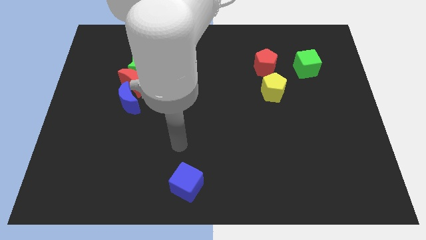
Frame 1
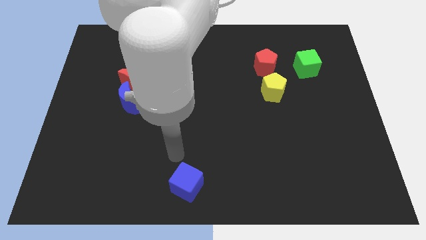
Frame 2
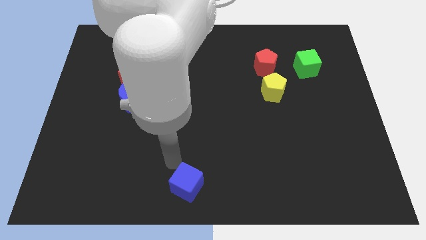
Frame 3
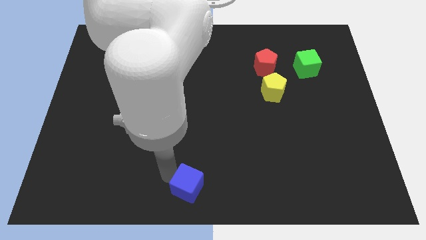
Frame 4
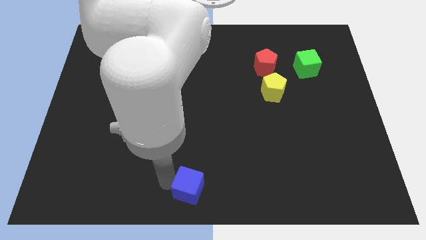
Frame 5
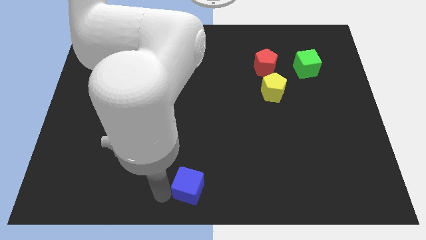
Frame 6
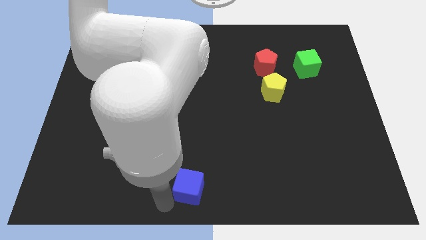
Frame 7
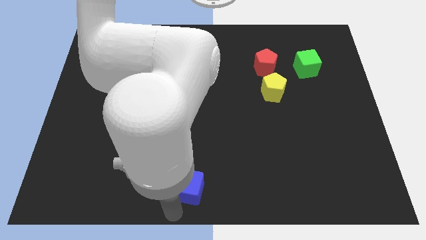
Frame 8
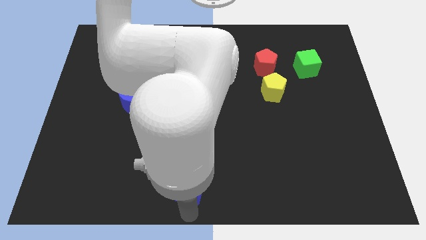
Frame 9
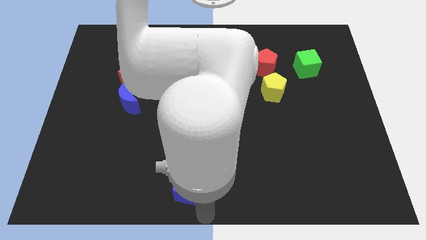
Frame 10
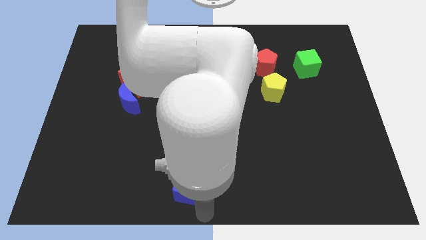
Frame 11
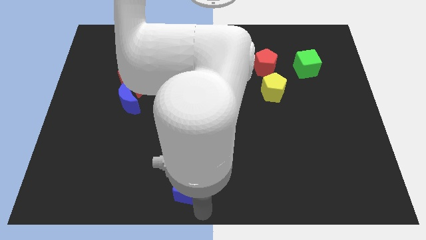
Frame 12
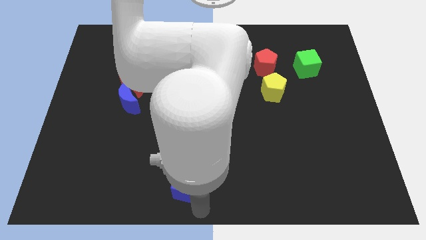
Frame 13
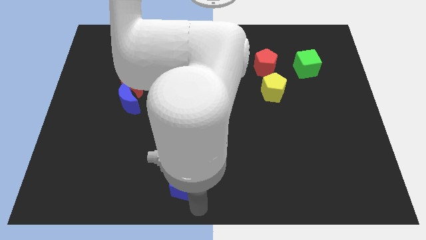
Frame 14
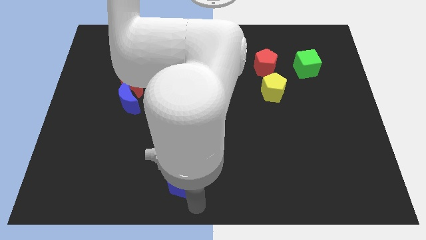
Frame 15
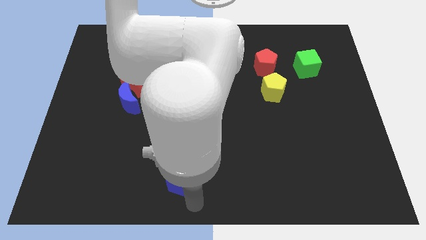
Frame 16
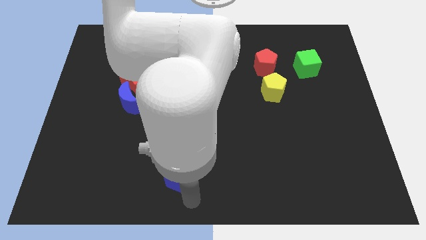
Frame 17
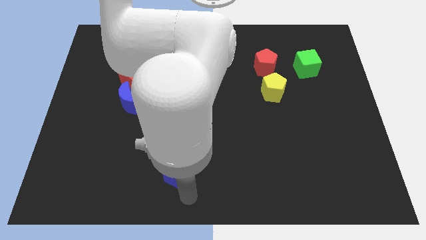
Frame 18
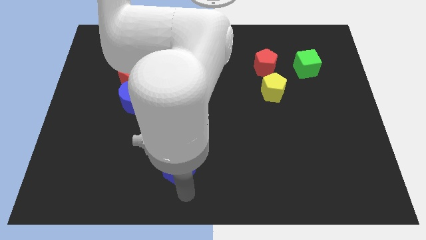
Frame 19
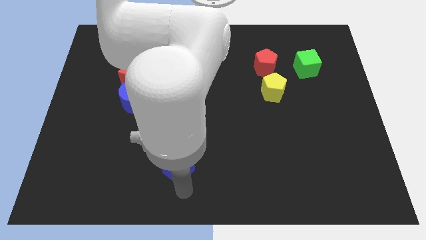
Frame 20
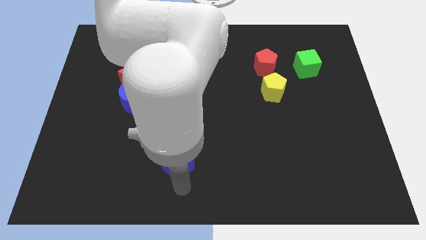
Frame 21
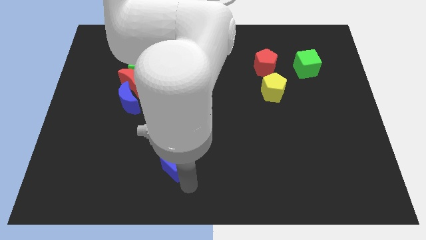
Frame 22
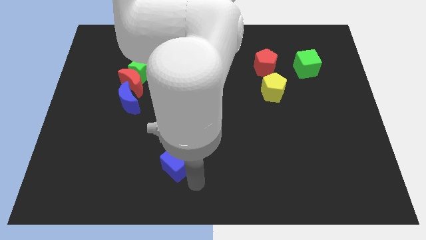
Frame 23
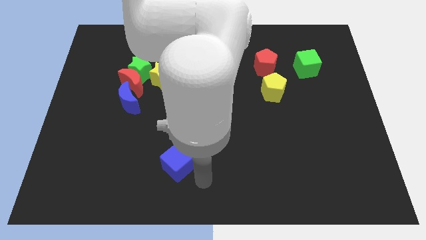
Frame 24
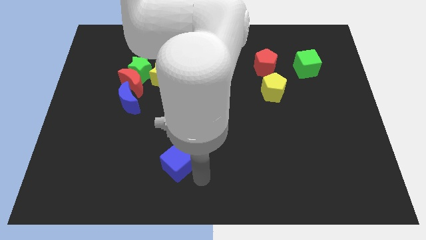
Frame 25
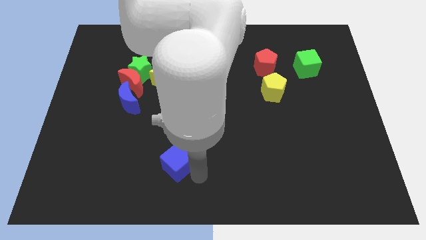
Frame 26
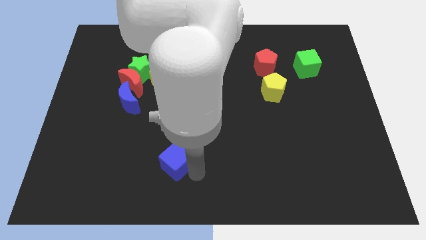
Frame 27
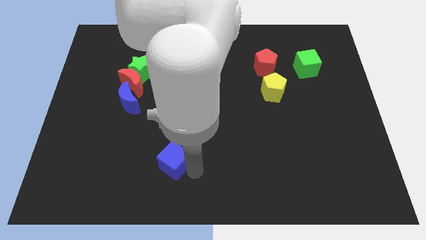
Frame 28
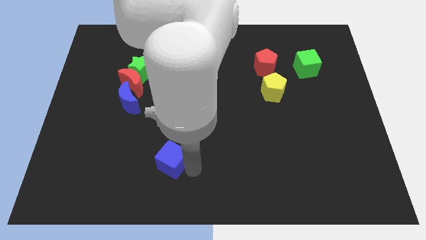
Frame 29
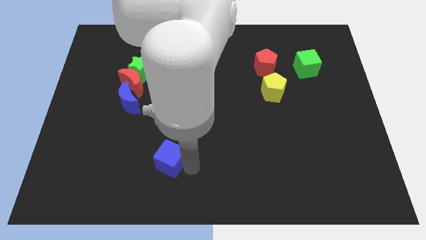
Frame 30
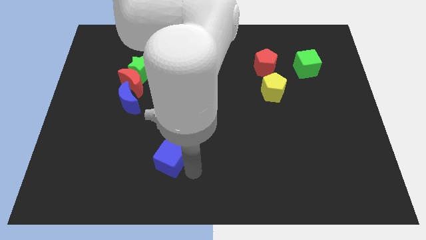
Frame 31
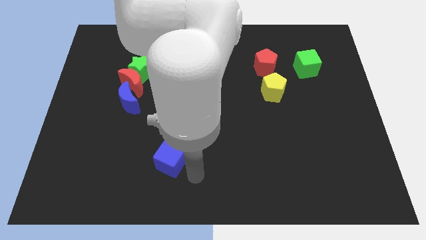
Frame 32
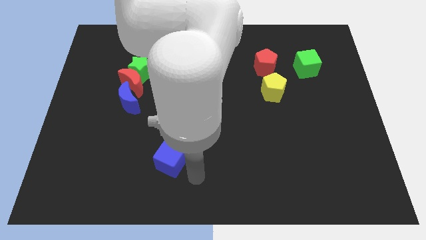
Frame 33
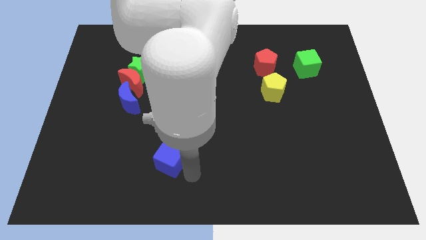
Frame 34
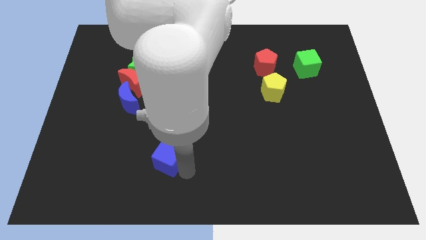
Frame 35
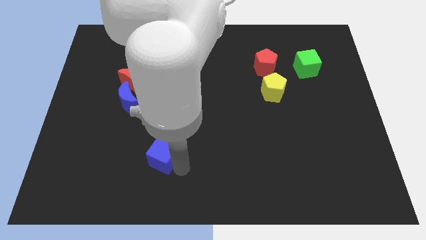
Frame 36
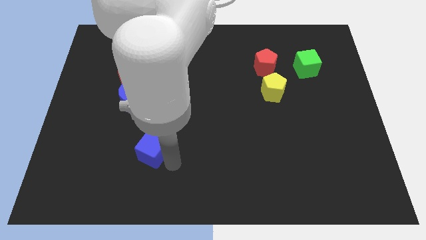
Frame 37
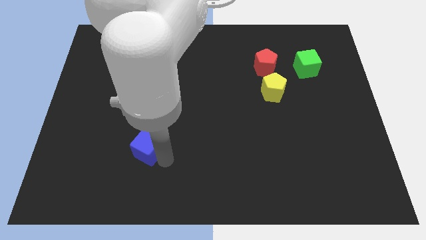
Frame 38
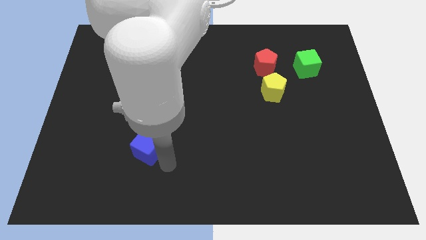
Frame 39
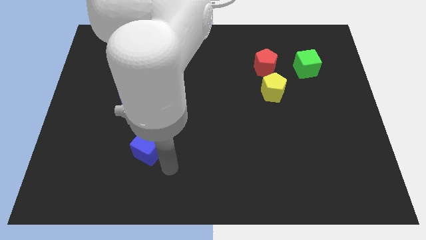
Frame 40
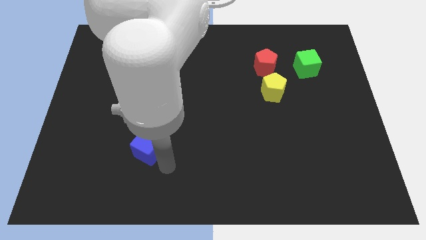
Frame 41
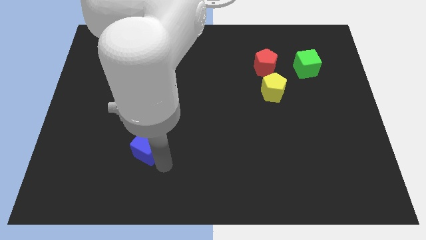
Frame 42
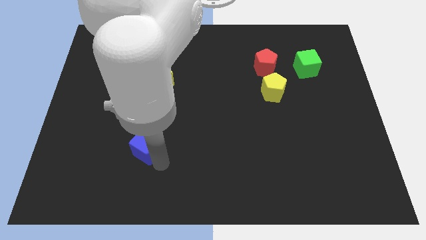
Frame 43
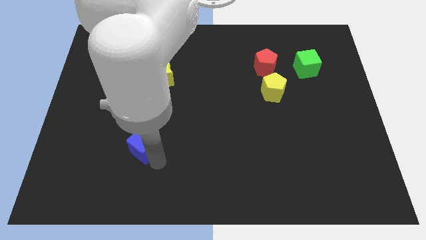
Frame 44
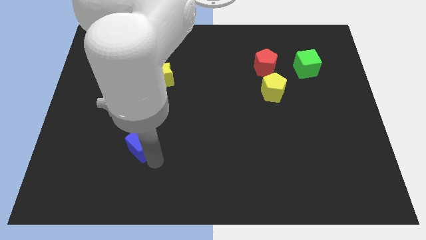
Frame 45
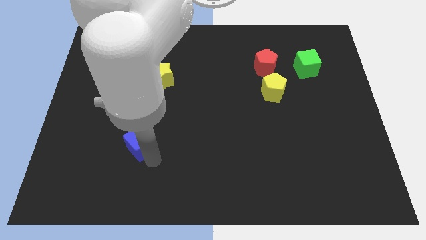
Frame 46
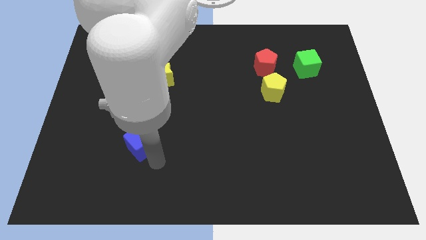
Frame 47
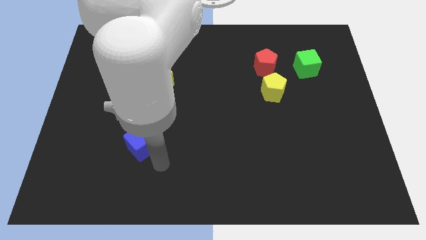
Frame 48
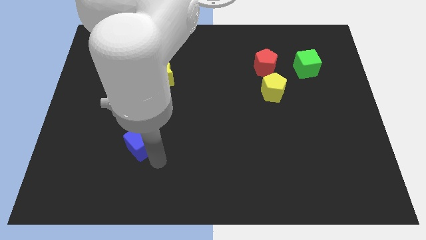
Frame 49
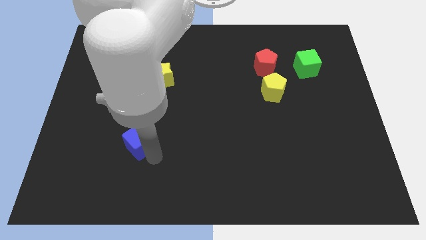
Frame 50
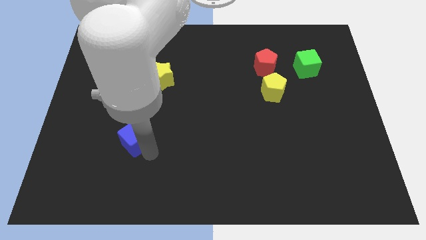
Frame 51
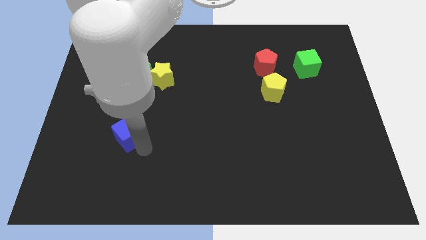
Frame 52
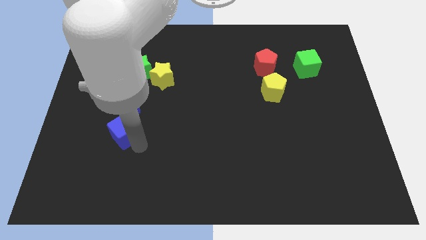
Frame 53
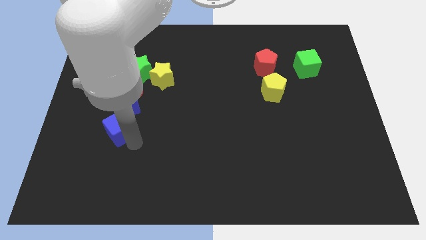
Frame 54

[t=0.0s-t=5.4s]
push the blue cube upwards and then left

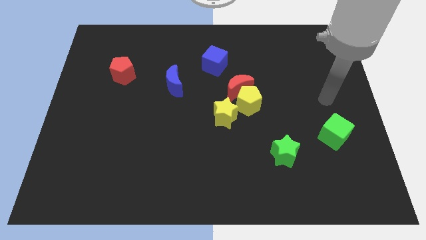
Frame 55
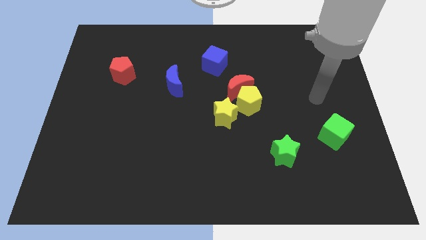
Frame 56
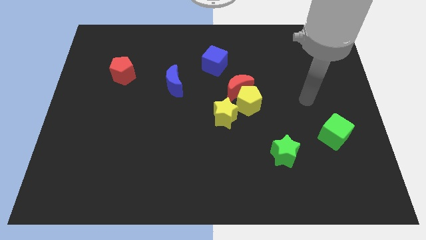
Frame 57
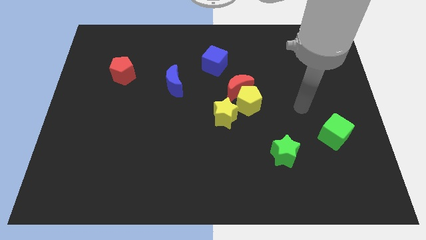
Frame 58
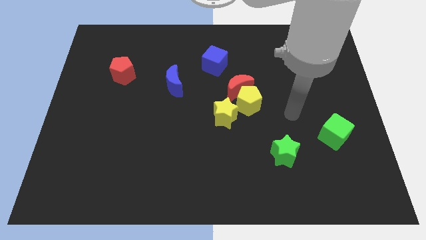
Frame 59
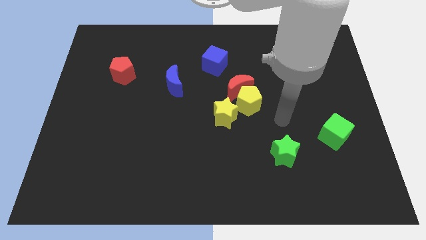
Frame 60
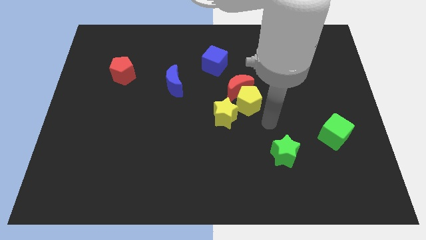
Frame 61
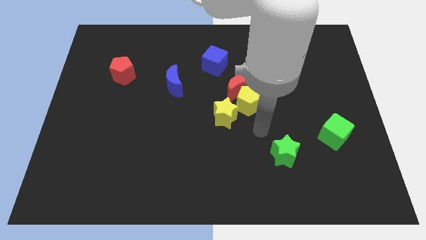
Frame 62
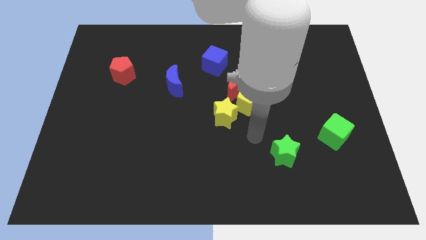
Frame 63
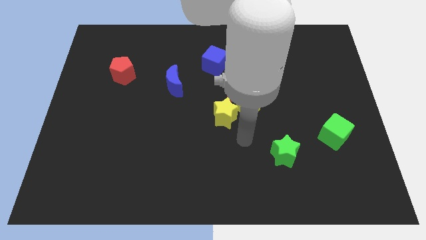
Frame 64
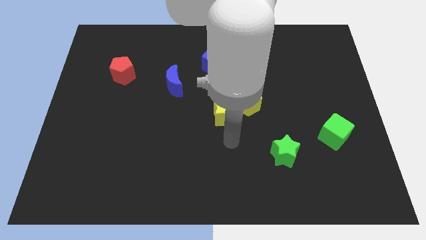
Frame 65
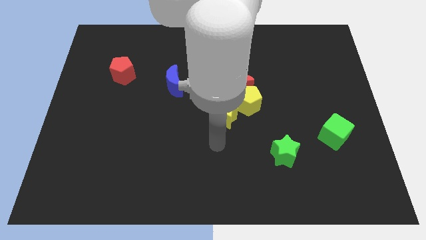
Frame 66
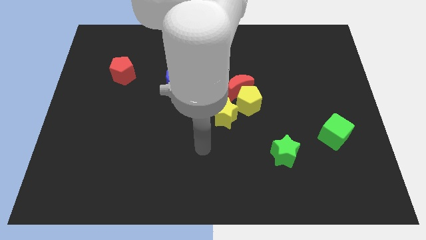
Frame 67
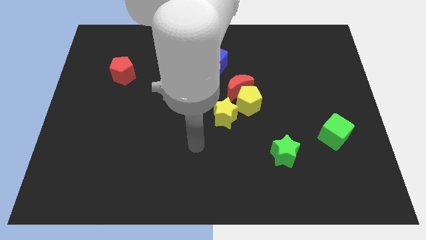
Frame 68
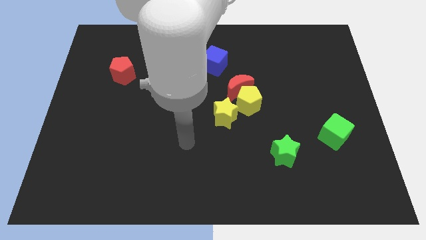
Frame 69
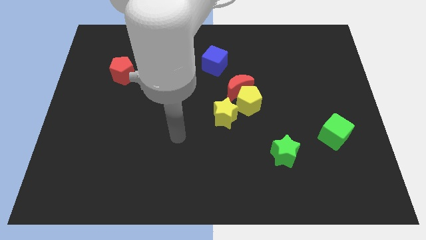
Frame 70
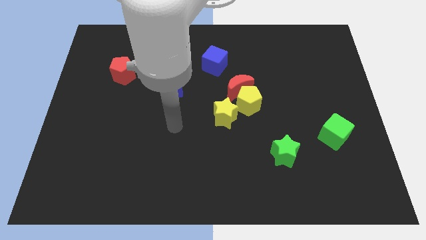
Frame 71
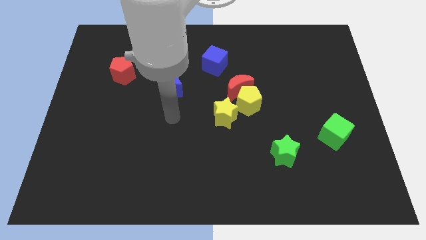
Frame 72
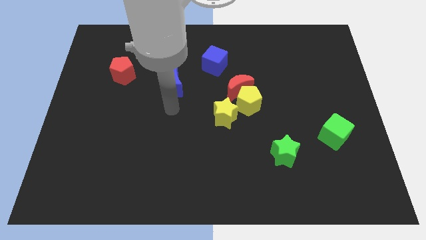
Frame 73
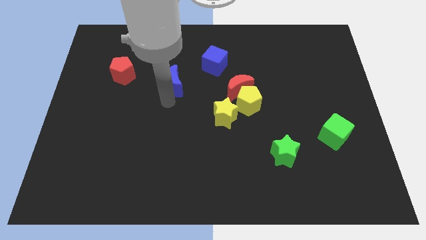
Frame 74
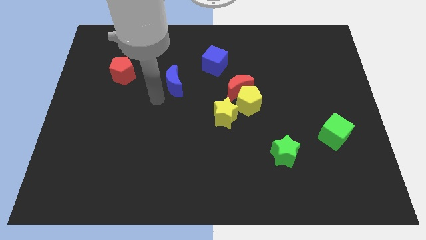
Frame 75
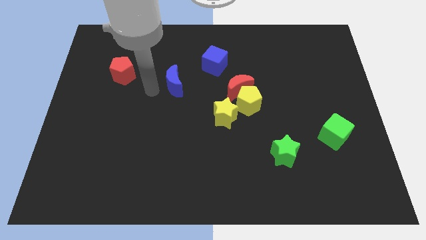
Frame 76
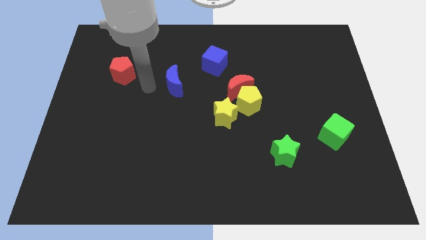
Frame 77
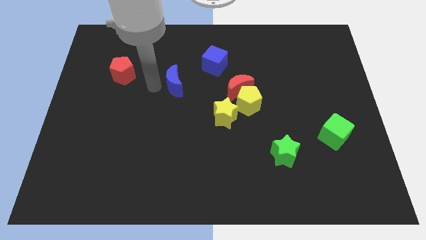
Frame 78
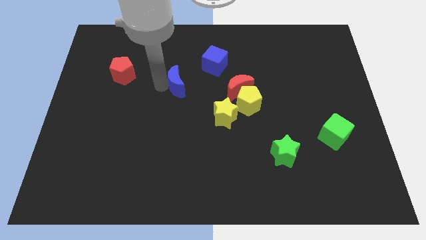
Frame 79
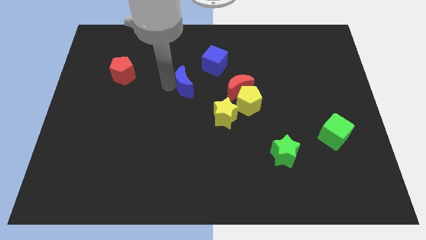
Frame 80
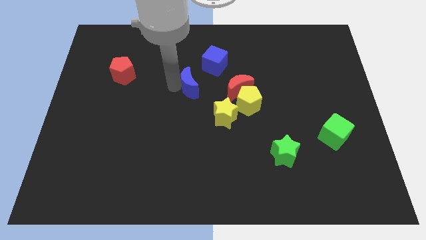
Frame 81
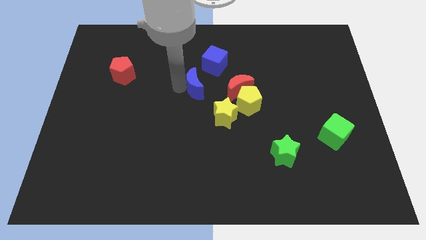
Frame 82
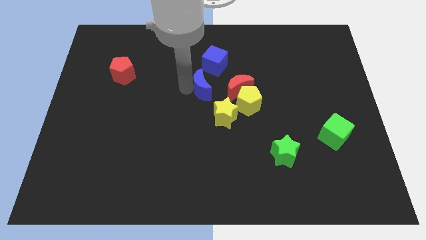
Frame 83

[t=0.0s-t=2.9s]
slide the blue moon a bit to the right
